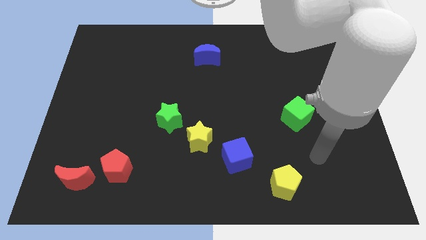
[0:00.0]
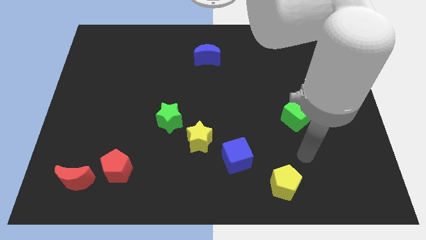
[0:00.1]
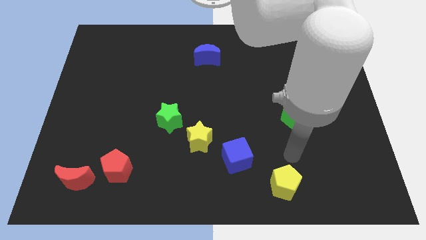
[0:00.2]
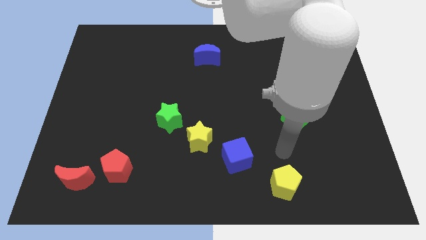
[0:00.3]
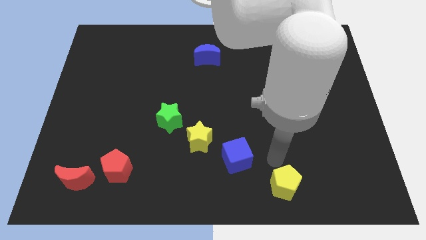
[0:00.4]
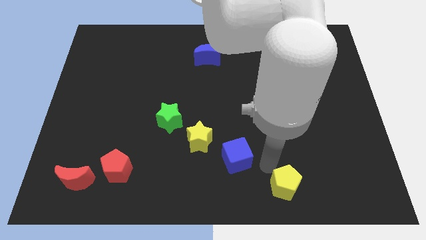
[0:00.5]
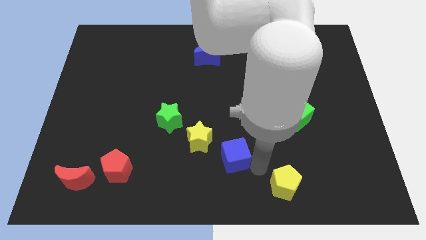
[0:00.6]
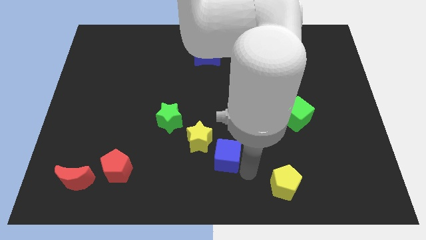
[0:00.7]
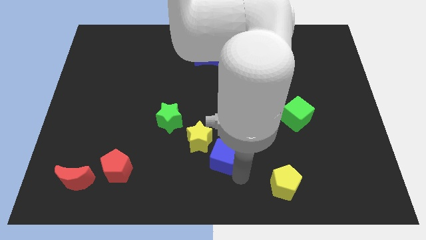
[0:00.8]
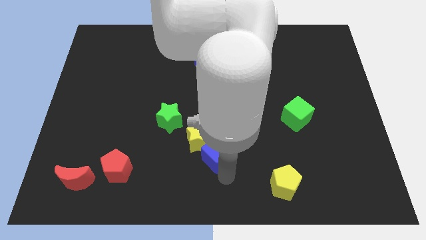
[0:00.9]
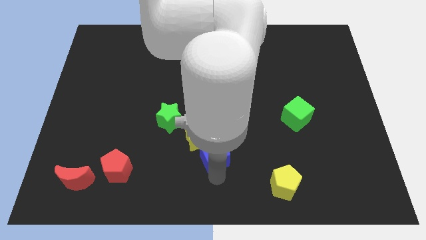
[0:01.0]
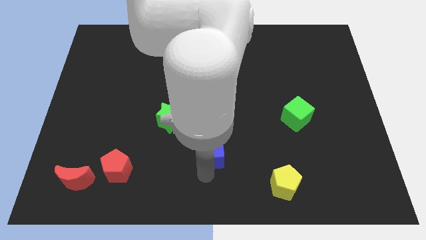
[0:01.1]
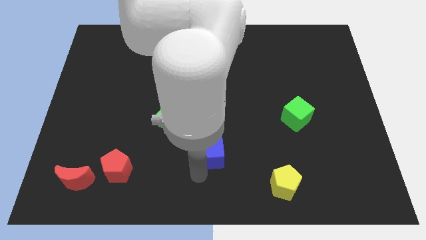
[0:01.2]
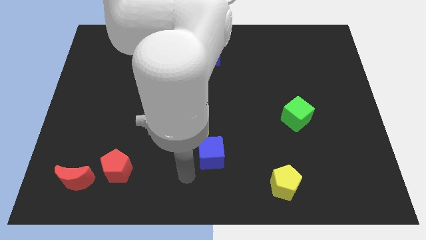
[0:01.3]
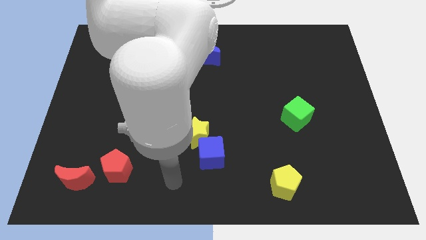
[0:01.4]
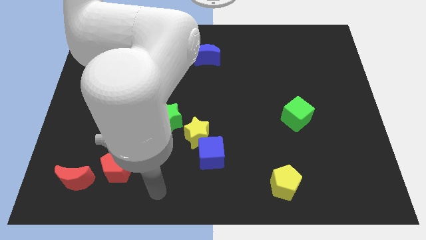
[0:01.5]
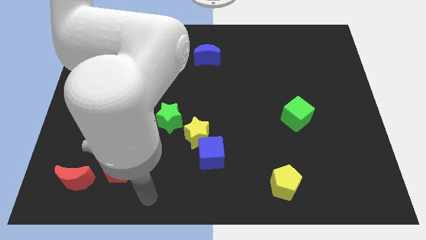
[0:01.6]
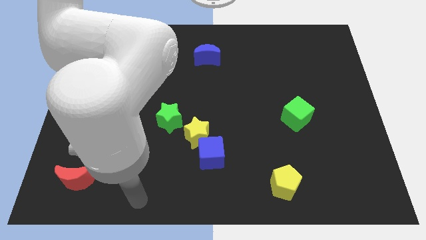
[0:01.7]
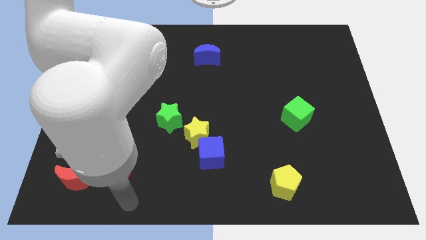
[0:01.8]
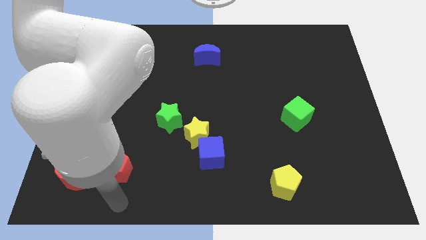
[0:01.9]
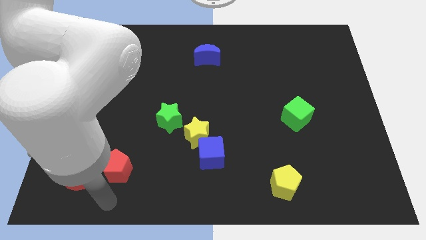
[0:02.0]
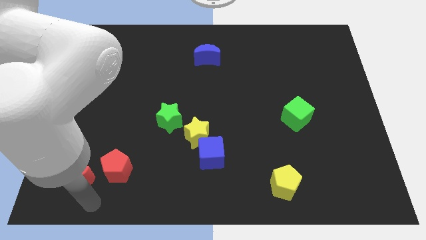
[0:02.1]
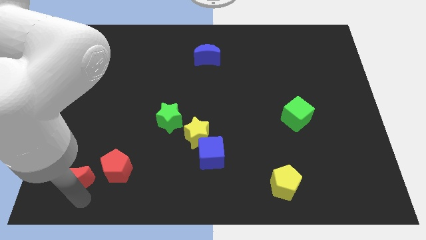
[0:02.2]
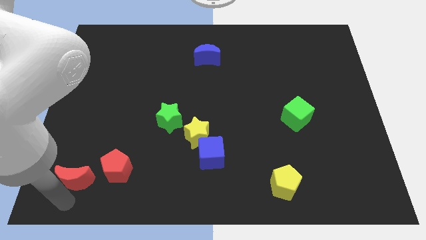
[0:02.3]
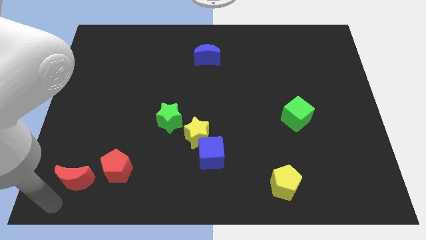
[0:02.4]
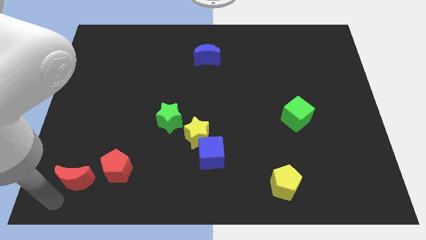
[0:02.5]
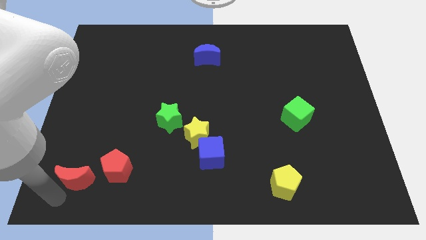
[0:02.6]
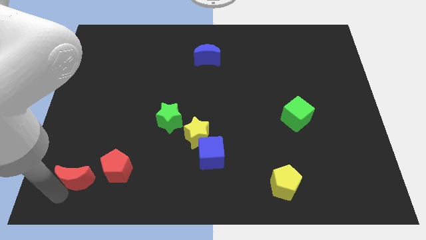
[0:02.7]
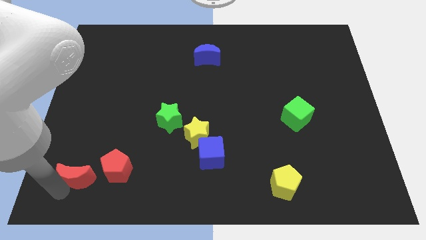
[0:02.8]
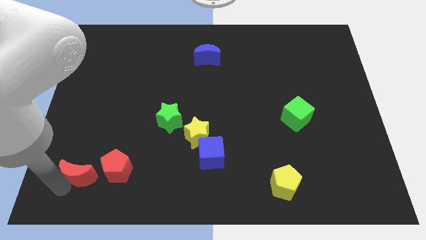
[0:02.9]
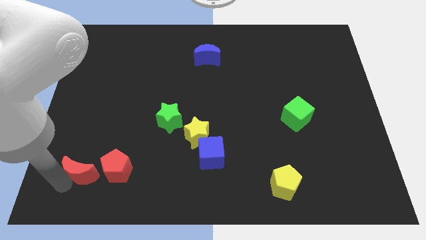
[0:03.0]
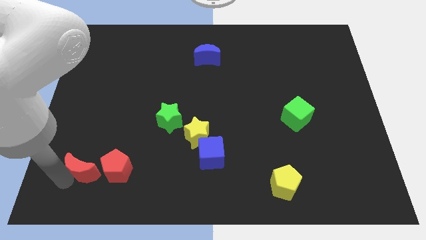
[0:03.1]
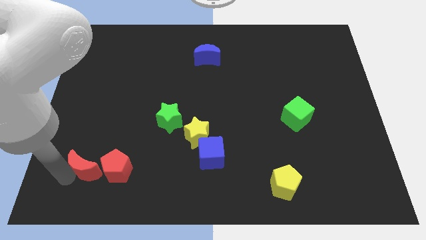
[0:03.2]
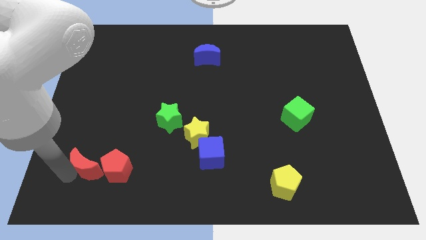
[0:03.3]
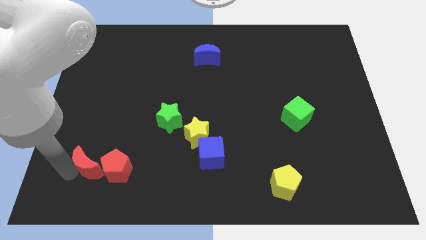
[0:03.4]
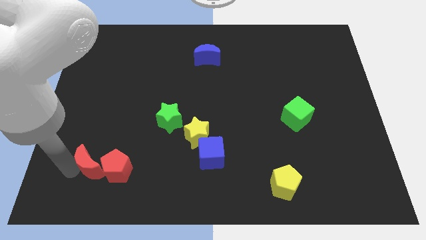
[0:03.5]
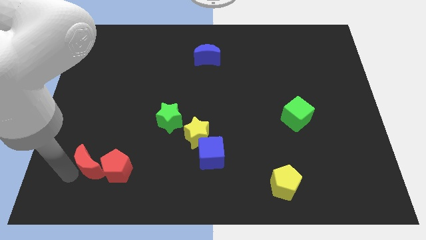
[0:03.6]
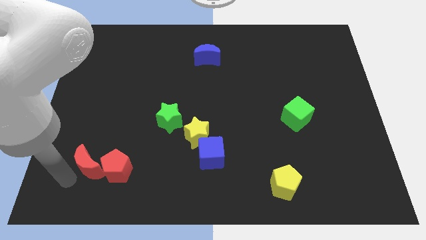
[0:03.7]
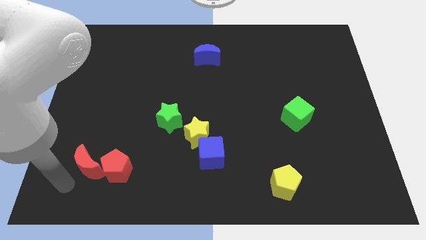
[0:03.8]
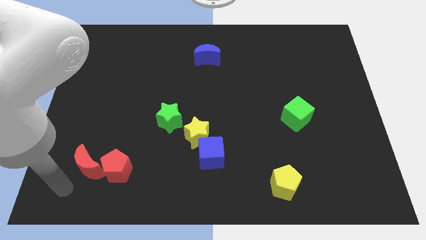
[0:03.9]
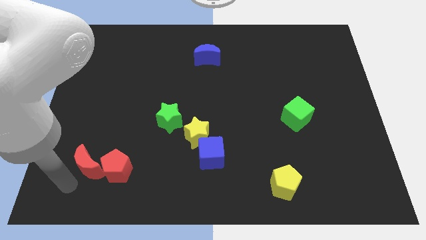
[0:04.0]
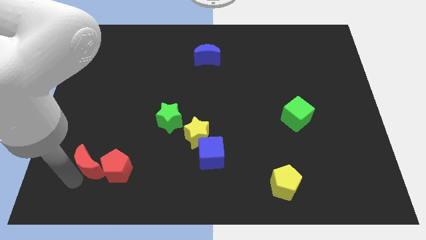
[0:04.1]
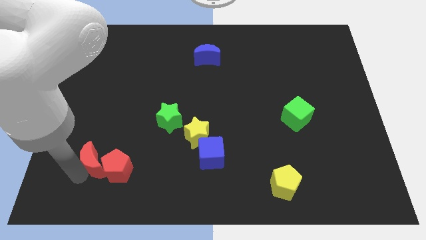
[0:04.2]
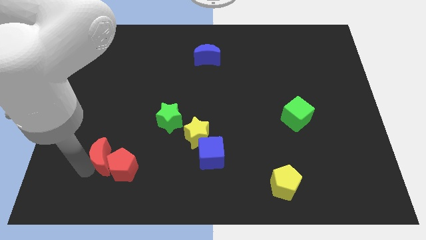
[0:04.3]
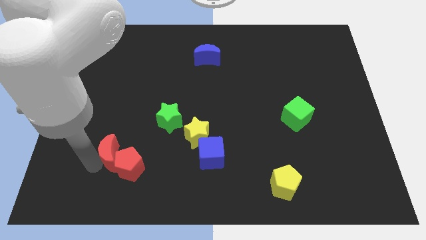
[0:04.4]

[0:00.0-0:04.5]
slightly slide the red moon diagonally upwards and right

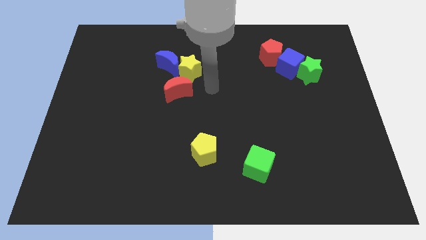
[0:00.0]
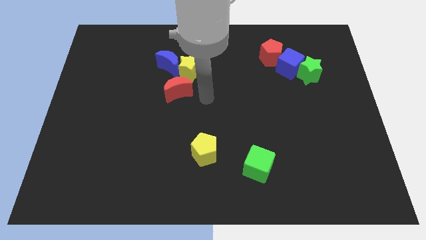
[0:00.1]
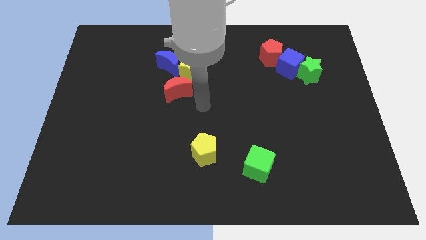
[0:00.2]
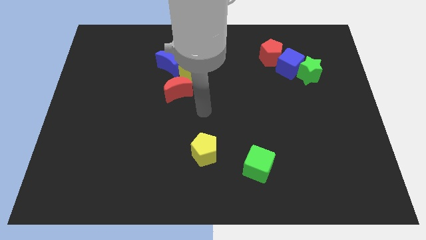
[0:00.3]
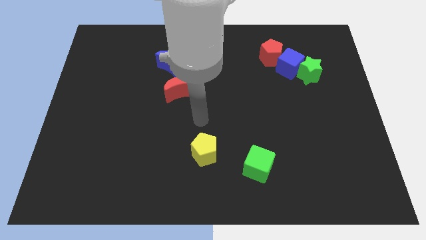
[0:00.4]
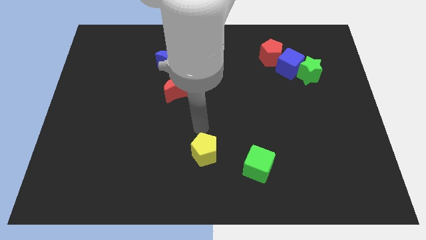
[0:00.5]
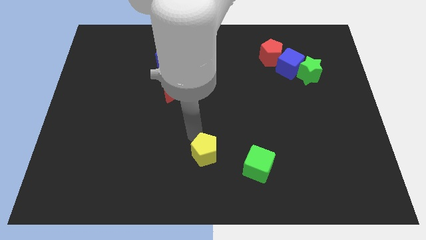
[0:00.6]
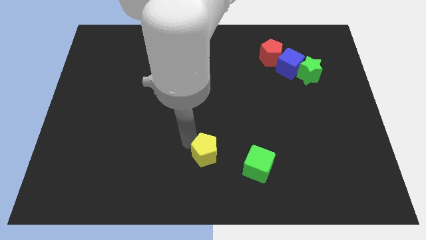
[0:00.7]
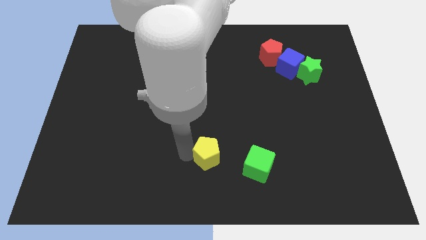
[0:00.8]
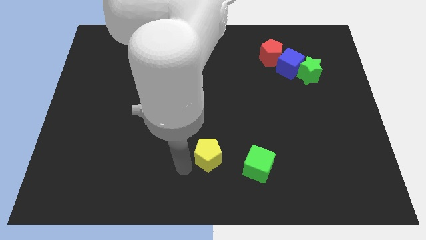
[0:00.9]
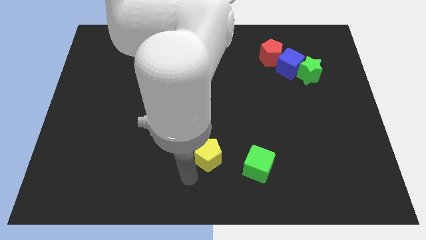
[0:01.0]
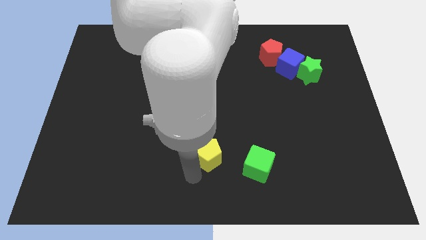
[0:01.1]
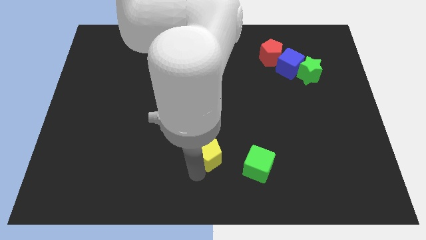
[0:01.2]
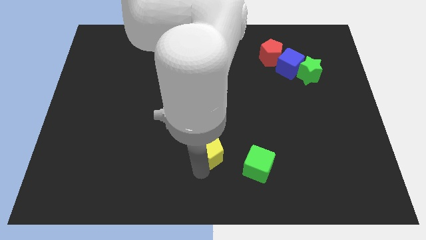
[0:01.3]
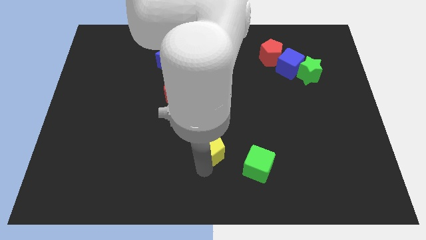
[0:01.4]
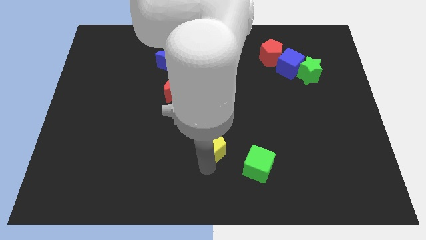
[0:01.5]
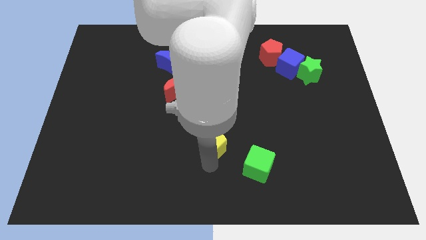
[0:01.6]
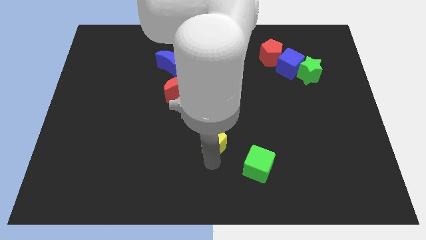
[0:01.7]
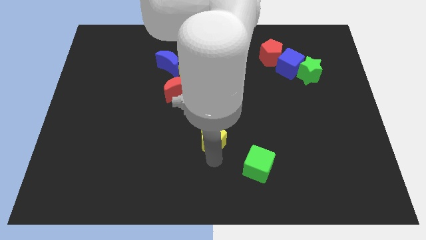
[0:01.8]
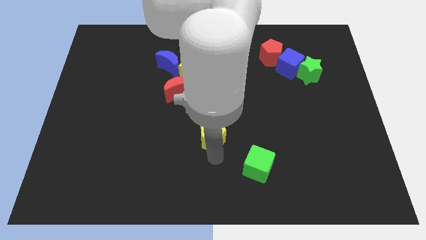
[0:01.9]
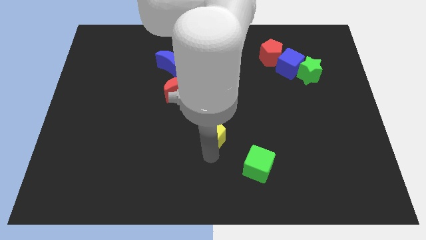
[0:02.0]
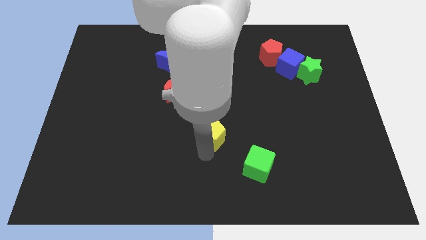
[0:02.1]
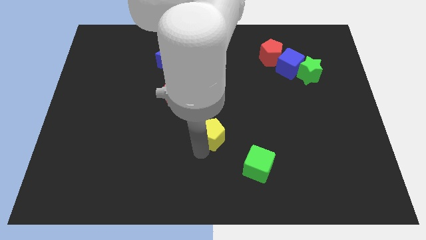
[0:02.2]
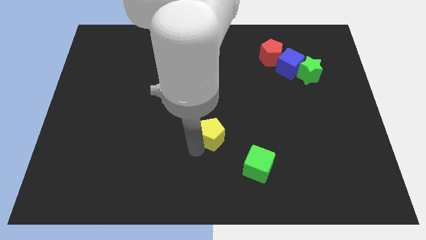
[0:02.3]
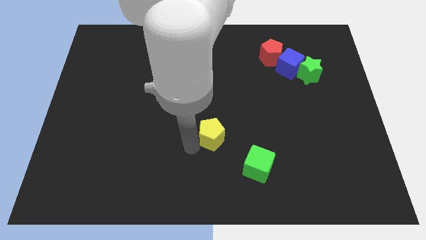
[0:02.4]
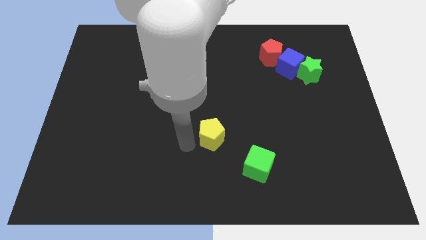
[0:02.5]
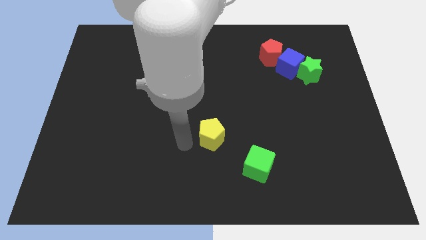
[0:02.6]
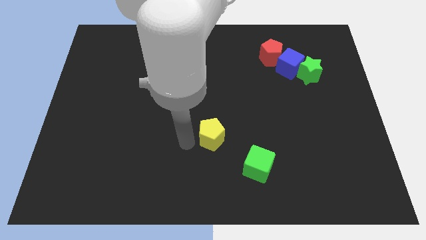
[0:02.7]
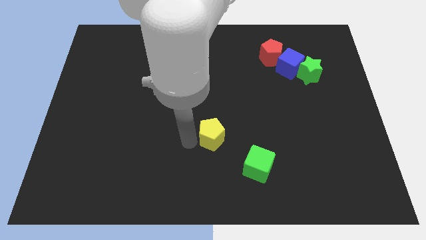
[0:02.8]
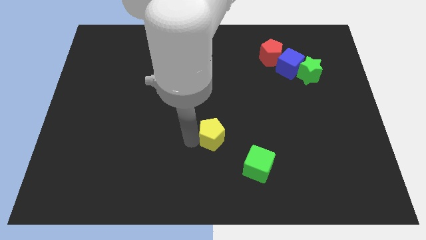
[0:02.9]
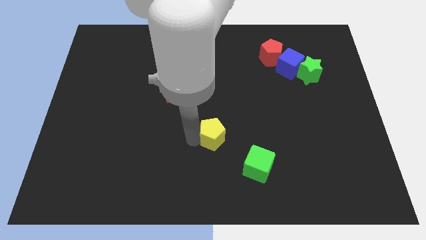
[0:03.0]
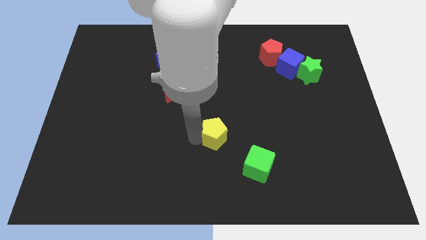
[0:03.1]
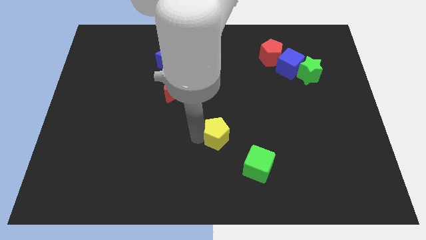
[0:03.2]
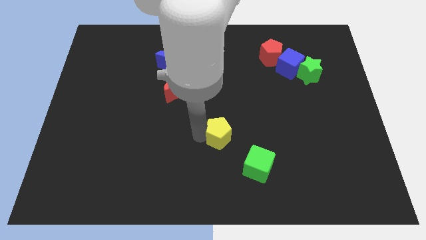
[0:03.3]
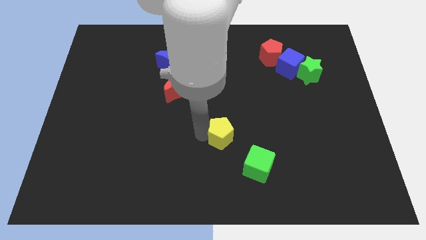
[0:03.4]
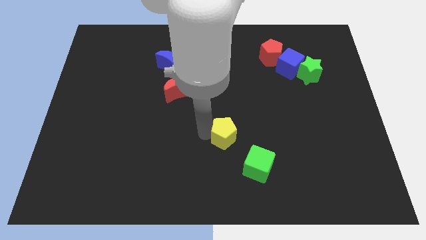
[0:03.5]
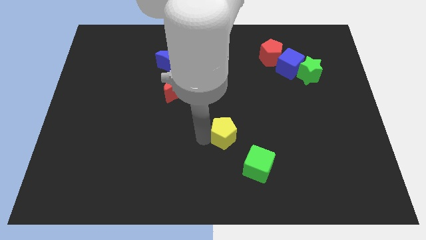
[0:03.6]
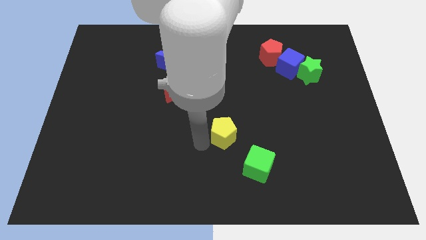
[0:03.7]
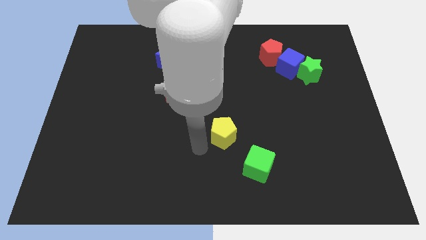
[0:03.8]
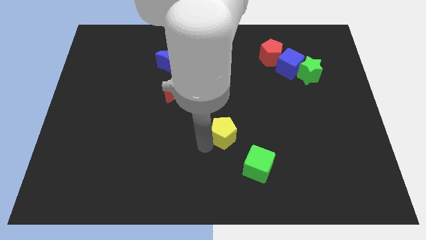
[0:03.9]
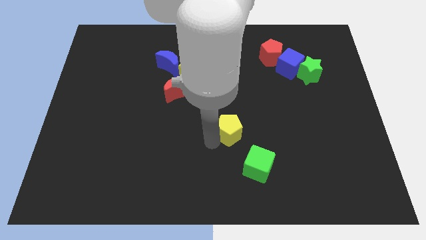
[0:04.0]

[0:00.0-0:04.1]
slightly move the yellow pentagon up and to the right
